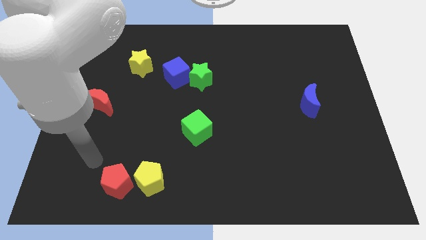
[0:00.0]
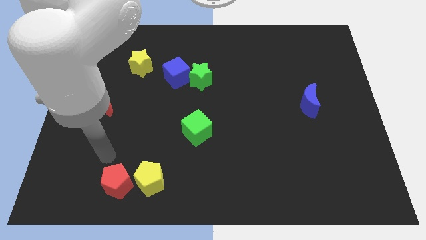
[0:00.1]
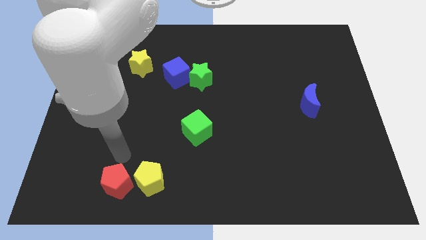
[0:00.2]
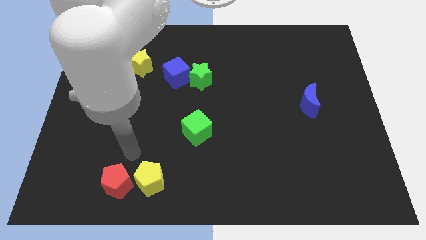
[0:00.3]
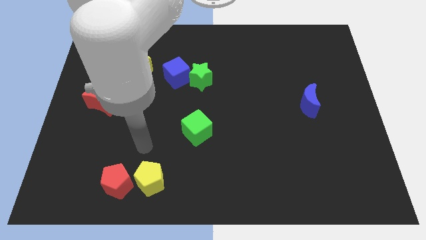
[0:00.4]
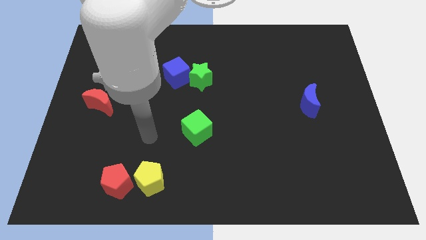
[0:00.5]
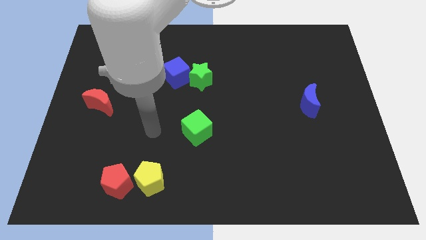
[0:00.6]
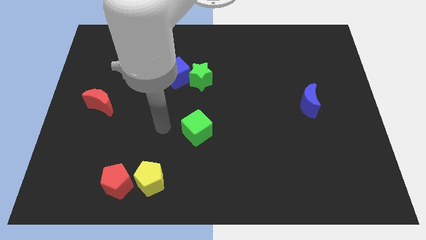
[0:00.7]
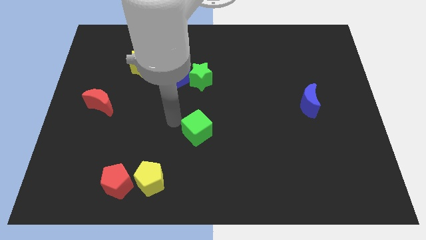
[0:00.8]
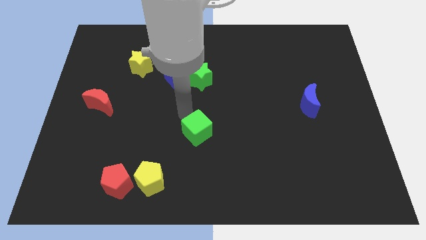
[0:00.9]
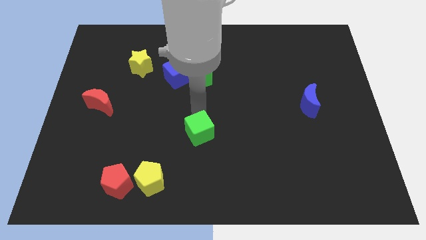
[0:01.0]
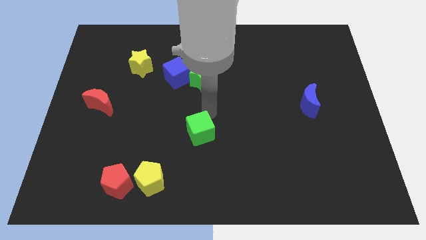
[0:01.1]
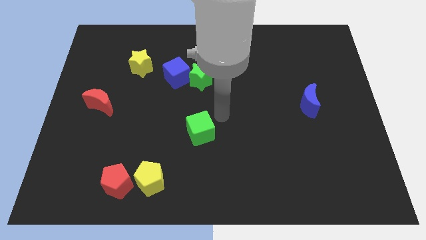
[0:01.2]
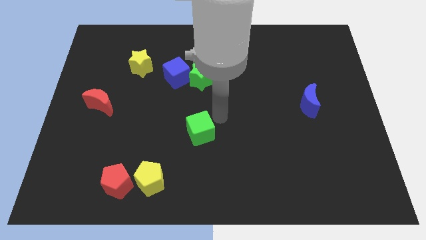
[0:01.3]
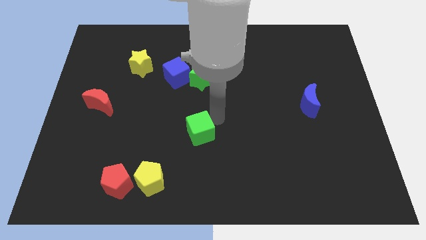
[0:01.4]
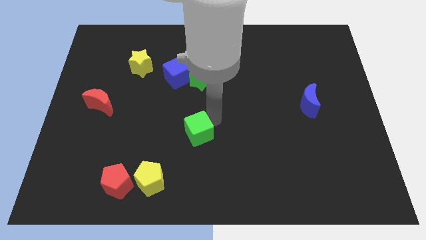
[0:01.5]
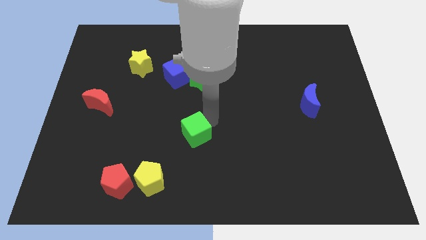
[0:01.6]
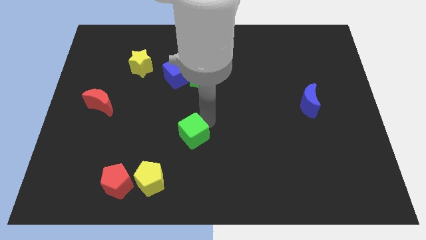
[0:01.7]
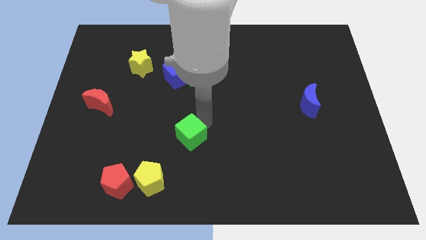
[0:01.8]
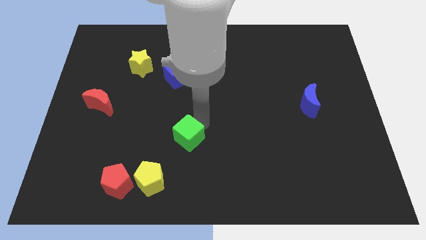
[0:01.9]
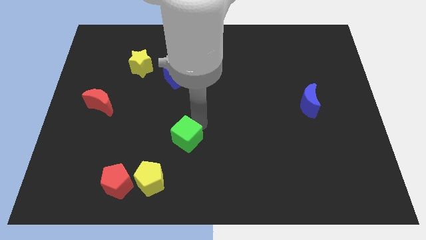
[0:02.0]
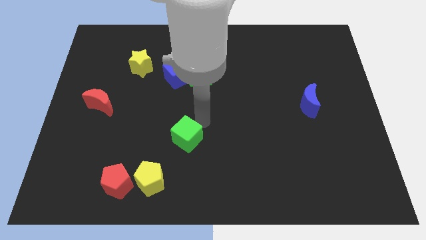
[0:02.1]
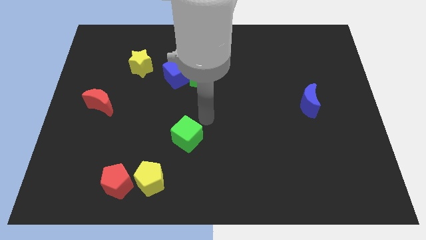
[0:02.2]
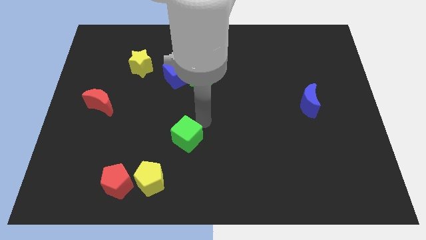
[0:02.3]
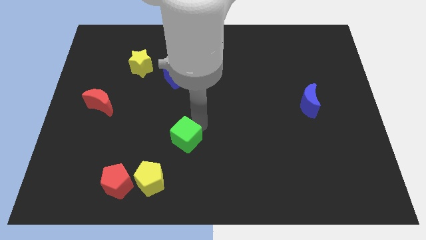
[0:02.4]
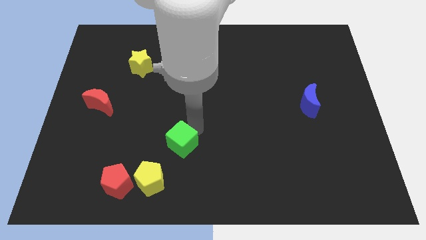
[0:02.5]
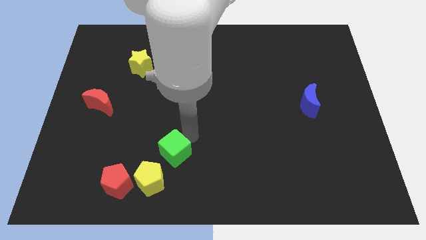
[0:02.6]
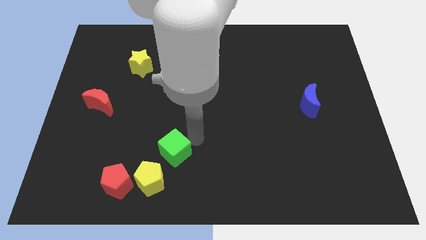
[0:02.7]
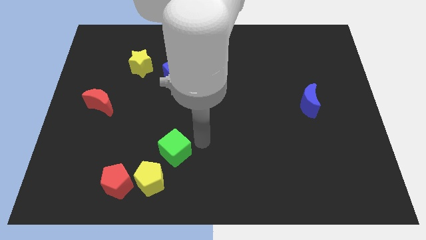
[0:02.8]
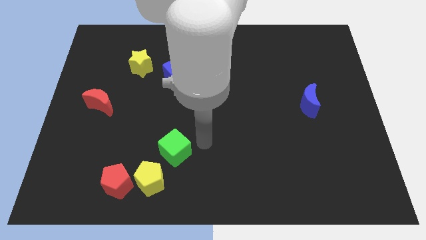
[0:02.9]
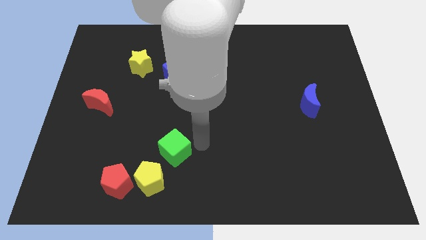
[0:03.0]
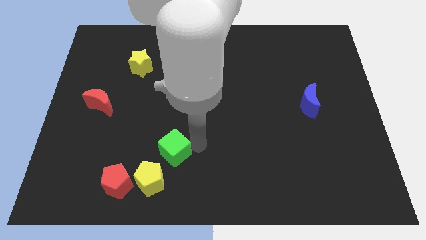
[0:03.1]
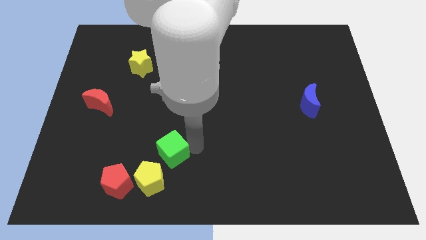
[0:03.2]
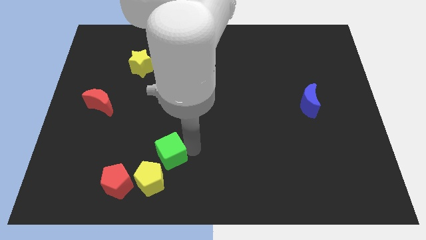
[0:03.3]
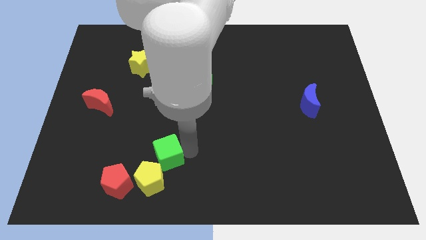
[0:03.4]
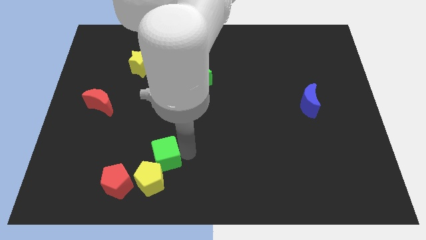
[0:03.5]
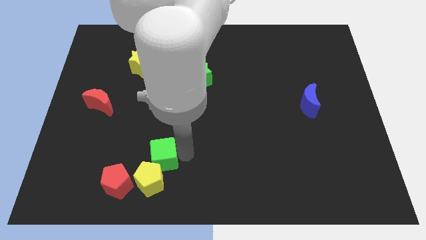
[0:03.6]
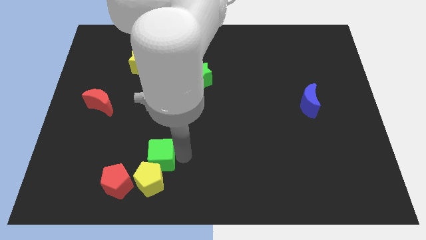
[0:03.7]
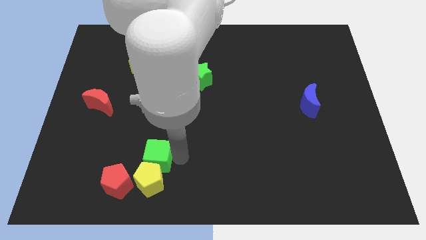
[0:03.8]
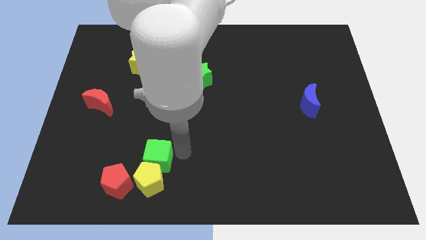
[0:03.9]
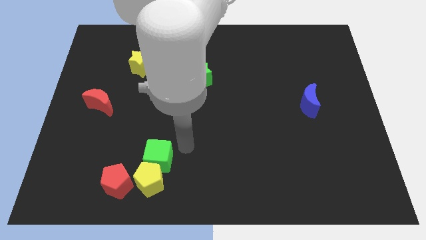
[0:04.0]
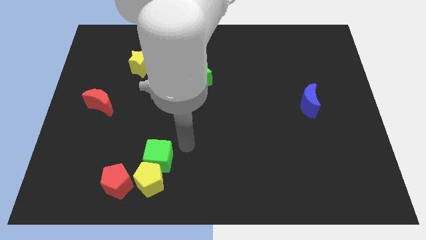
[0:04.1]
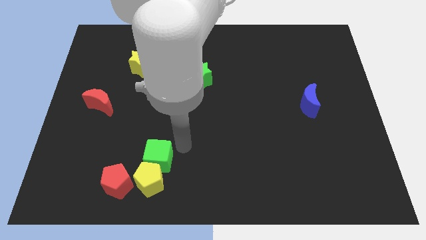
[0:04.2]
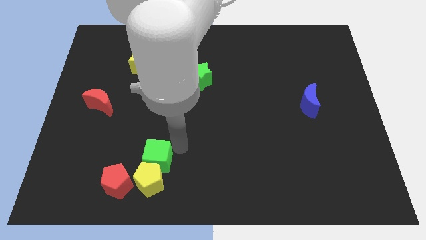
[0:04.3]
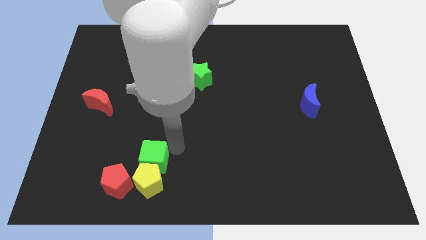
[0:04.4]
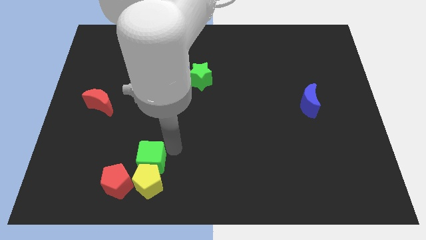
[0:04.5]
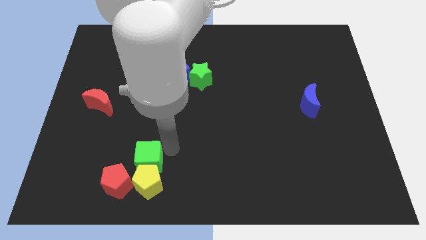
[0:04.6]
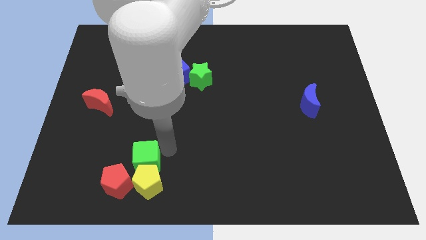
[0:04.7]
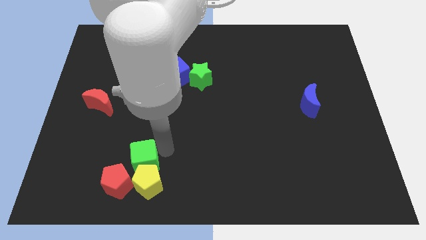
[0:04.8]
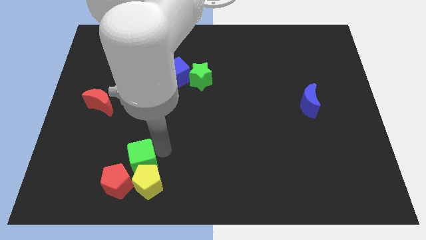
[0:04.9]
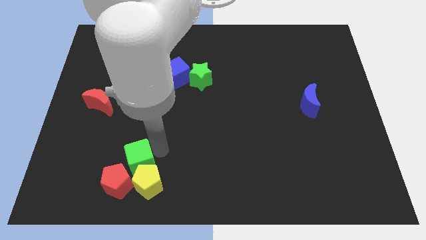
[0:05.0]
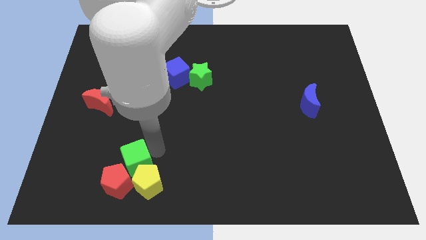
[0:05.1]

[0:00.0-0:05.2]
push the green cube towards the red pentagon
